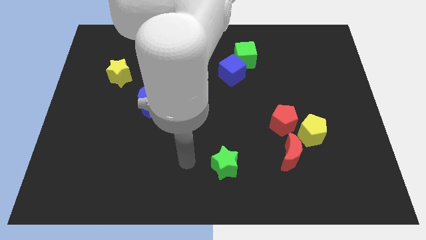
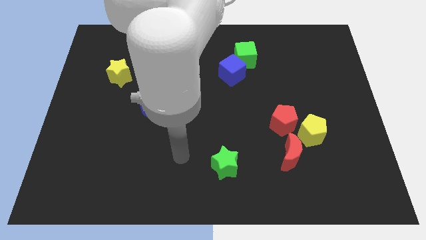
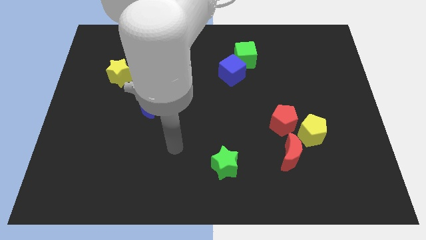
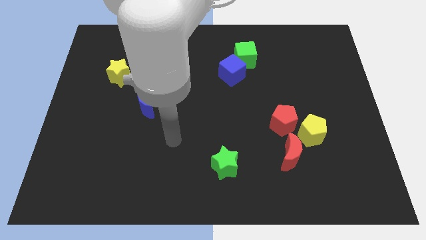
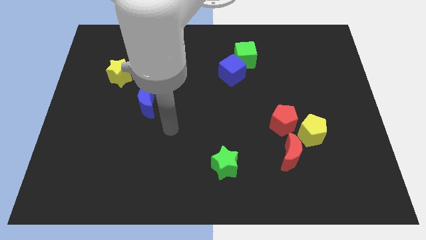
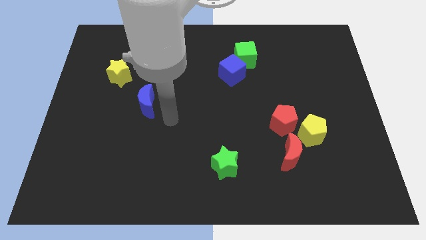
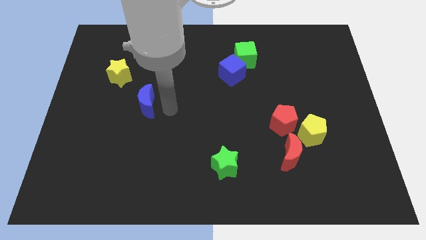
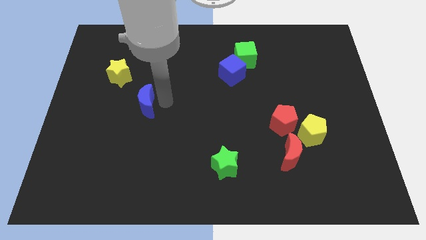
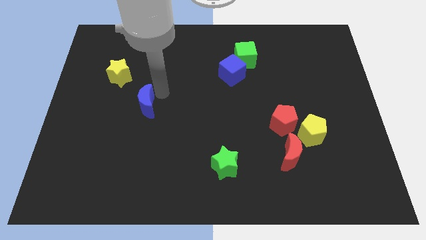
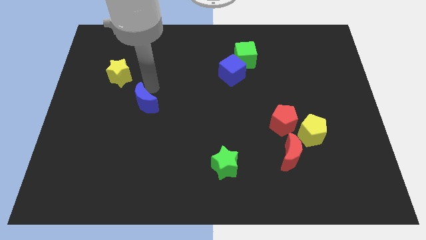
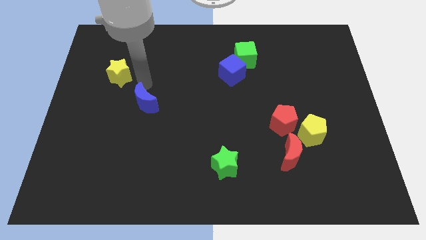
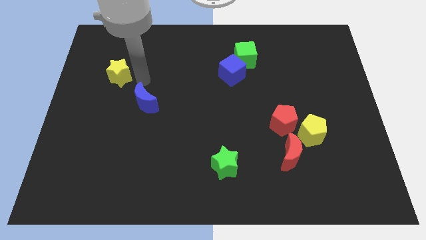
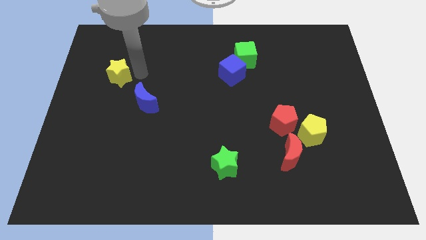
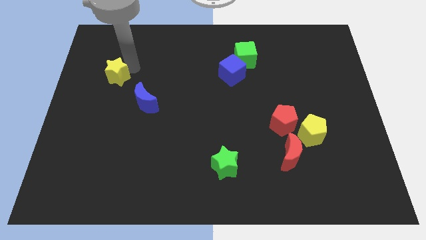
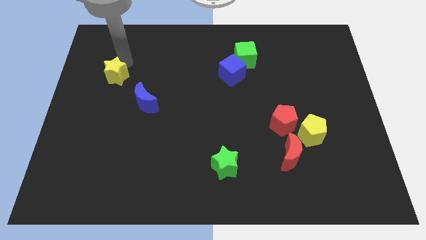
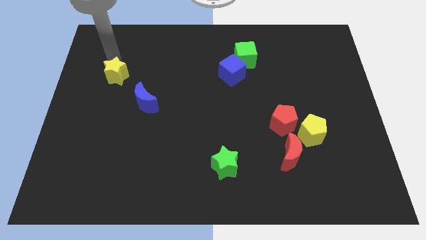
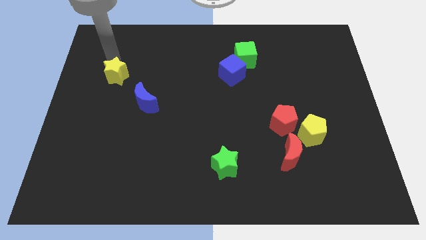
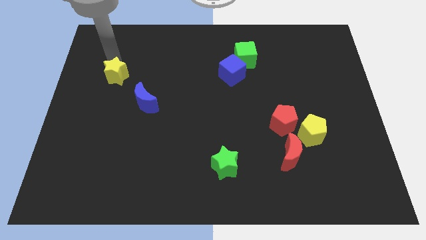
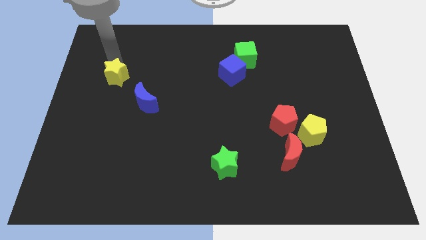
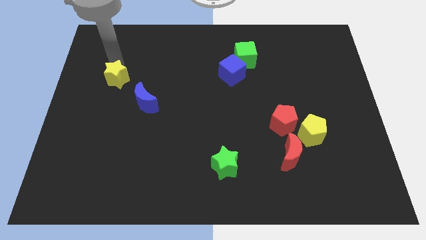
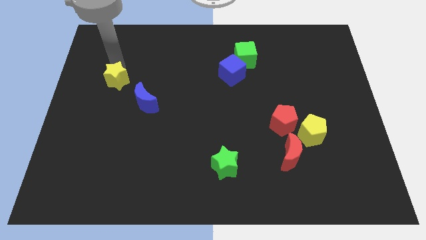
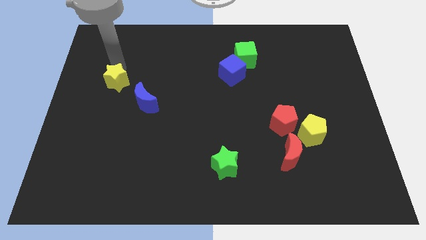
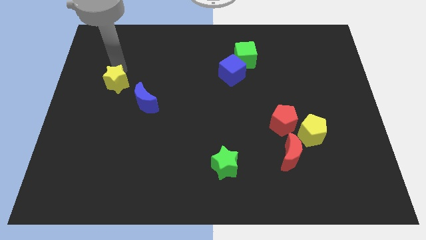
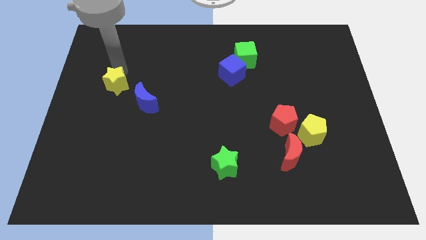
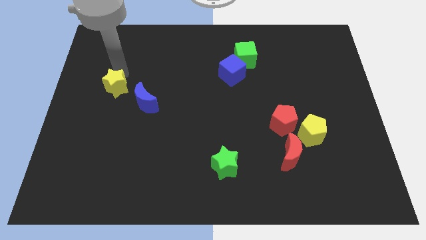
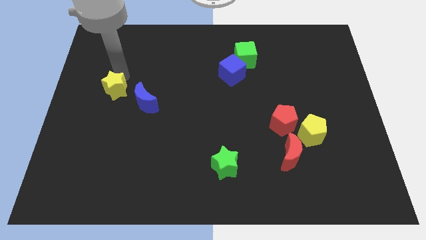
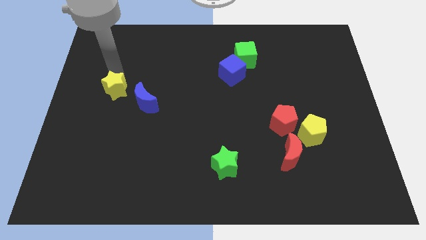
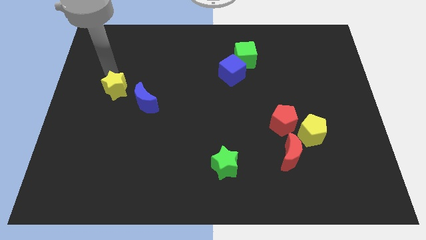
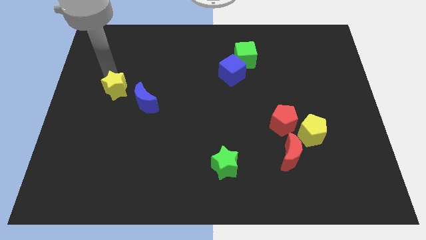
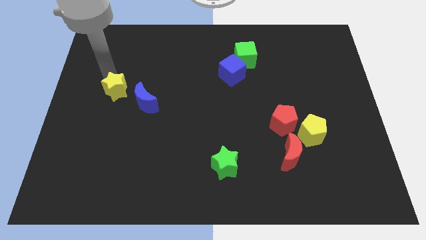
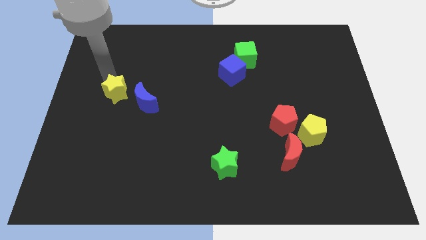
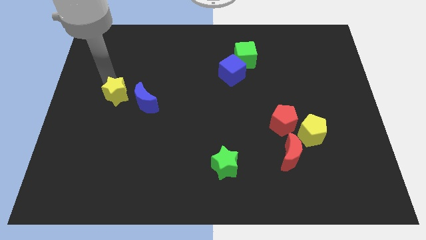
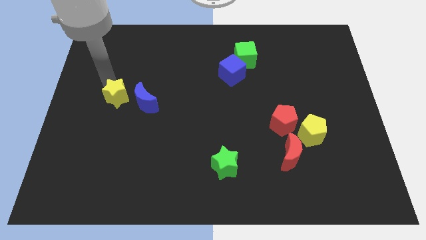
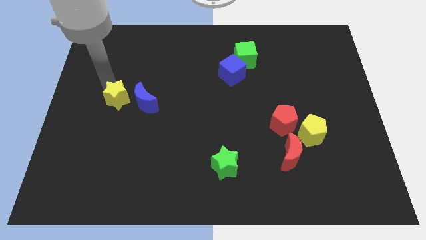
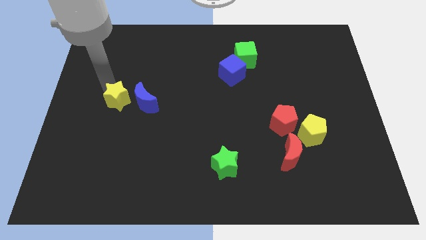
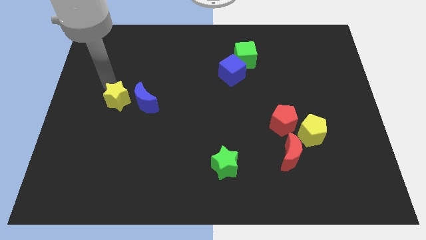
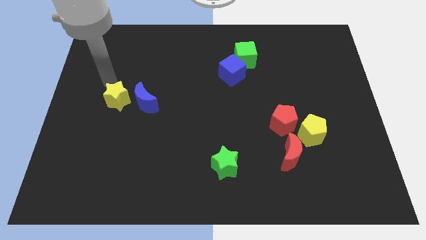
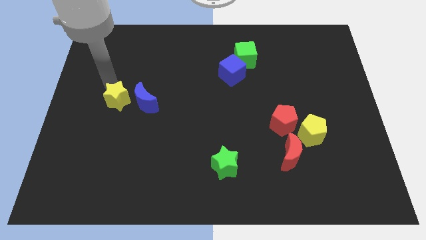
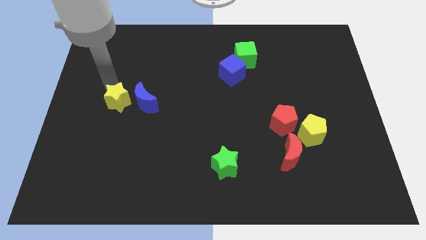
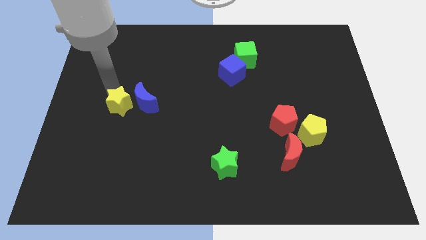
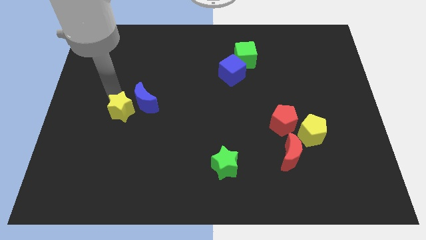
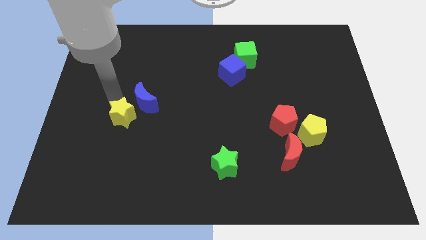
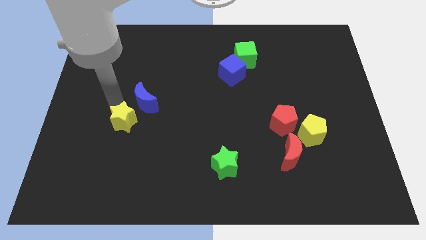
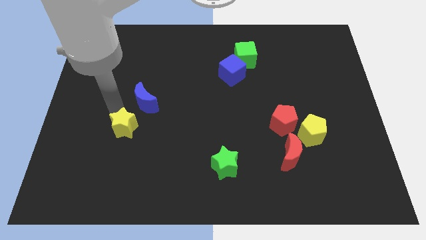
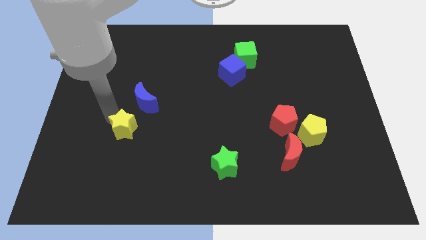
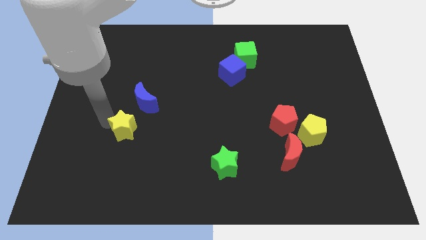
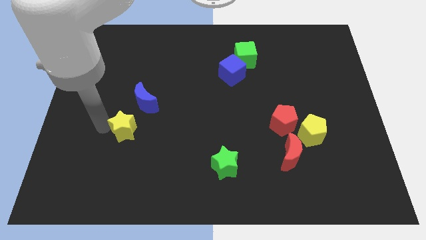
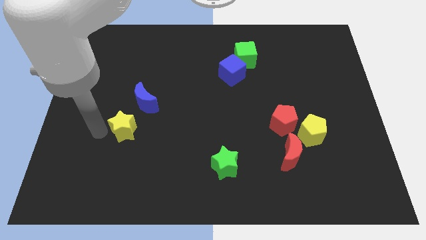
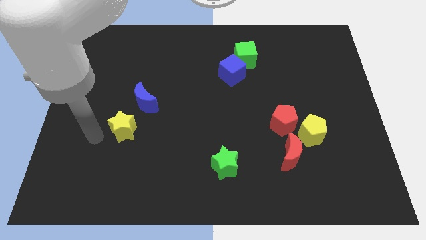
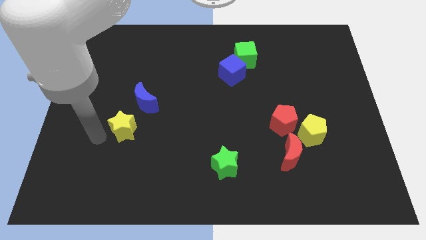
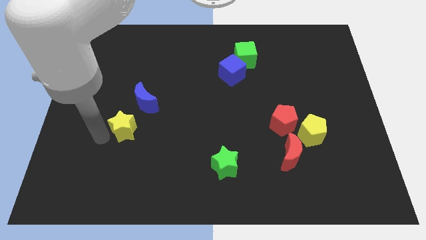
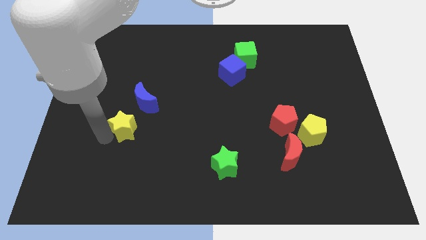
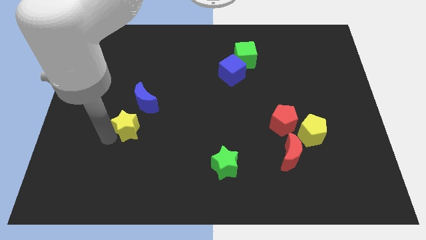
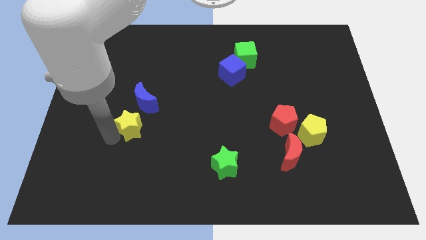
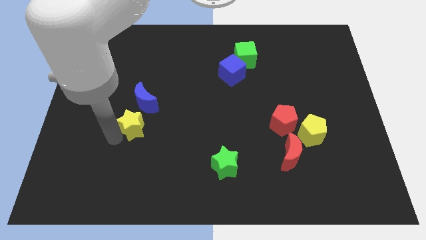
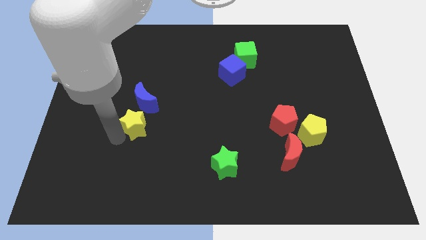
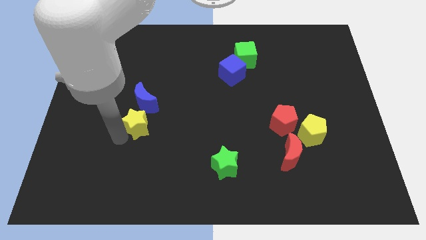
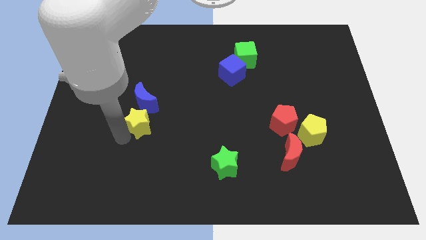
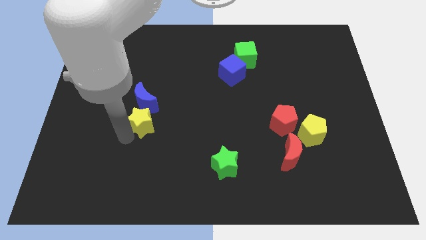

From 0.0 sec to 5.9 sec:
move the yellow star to the bottom right side of the blue moon

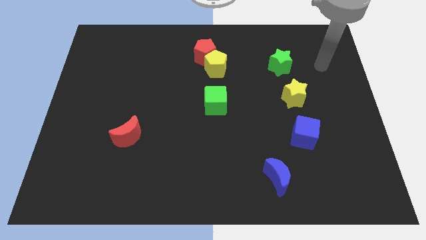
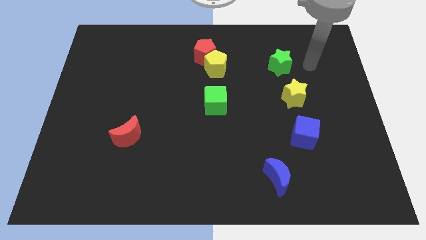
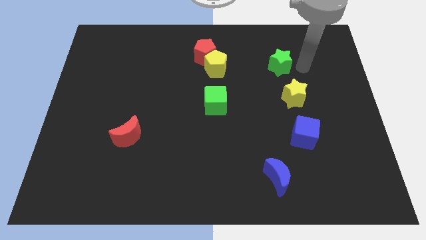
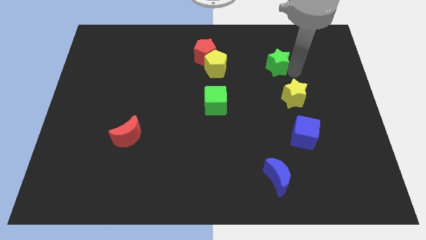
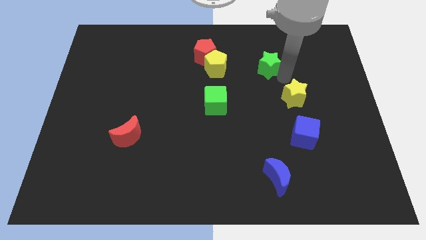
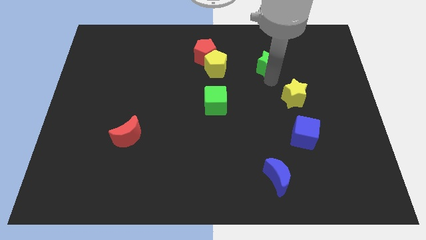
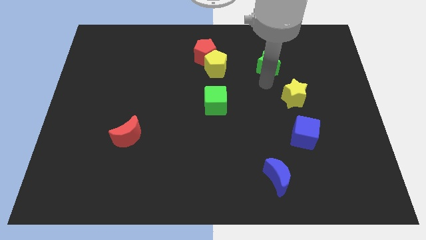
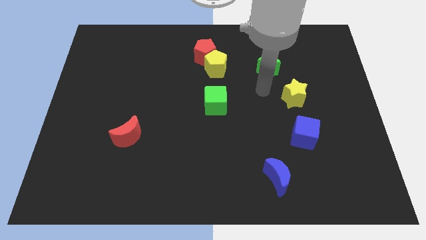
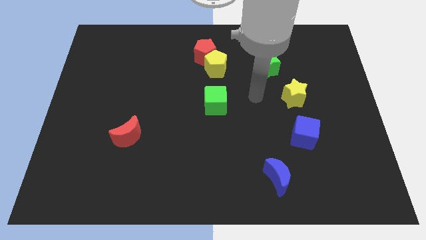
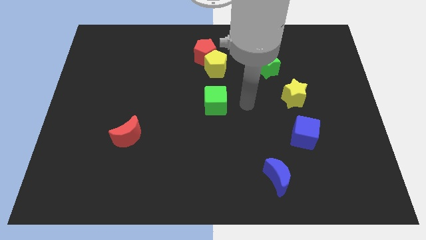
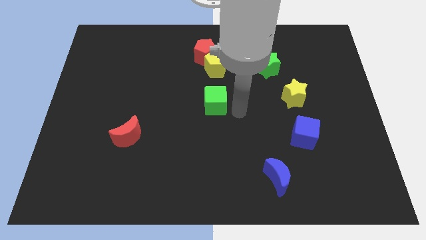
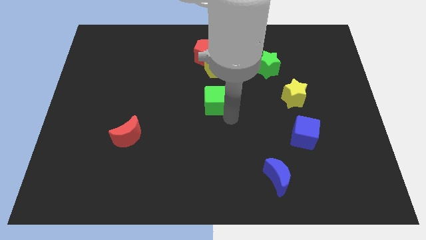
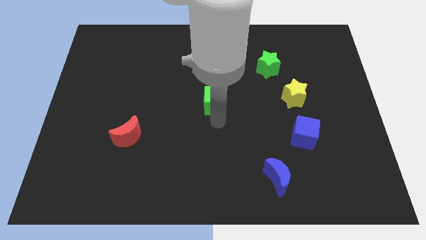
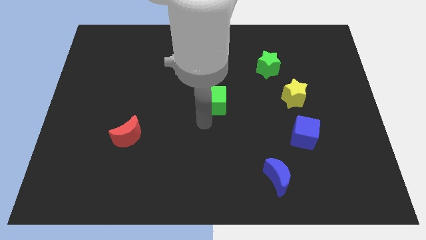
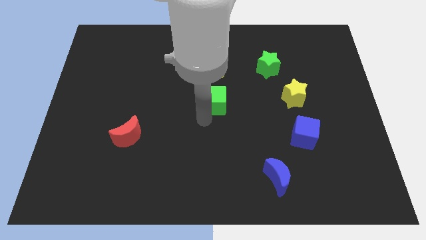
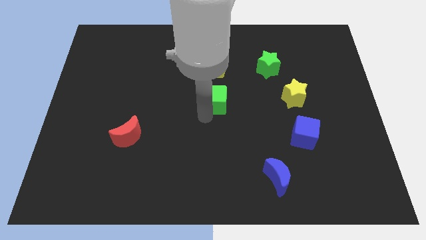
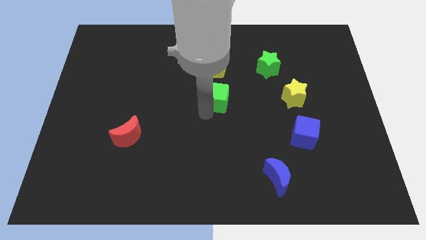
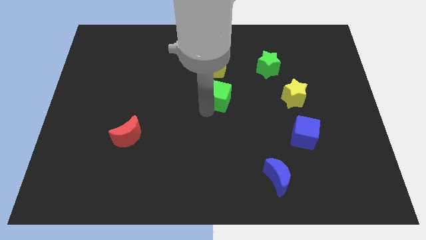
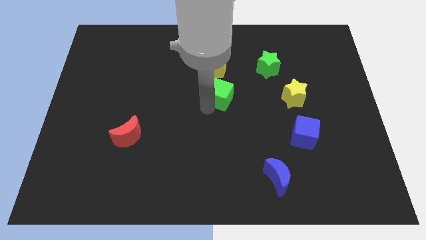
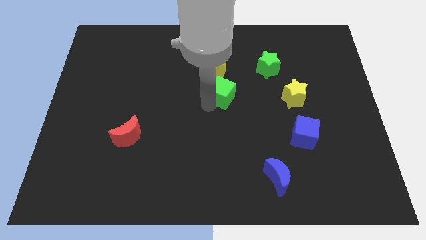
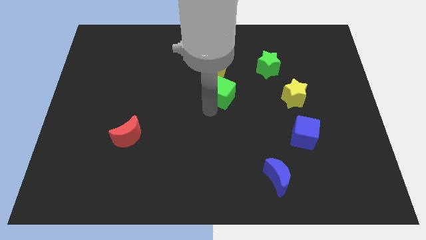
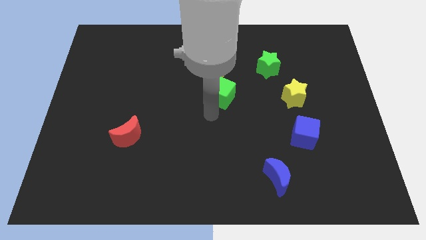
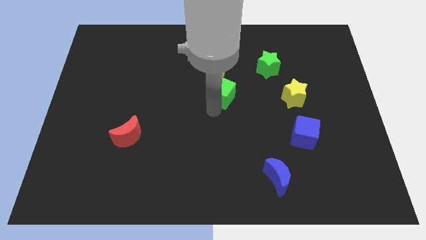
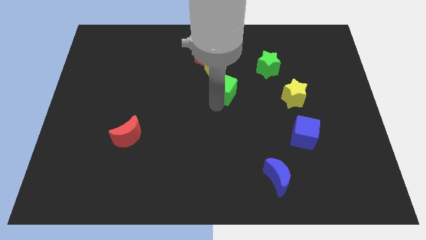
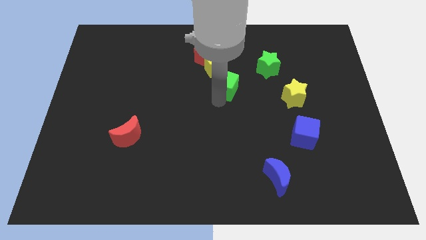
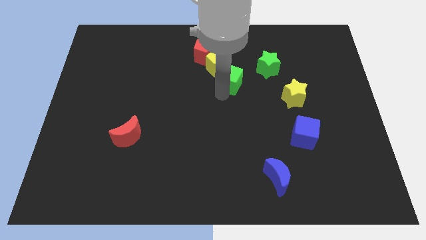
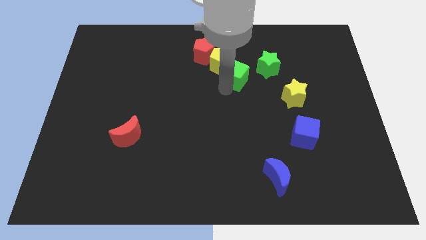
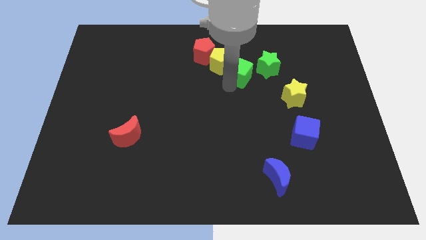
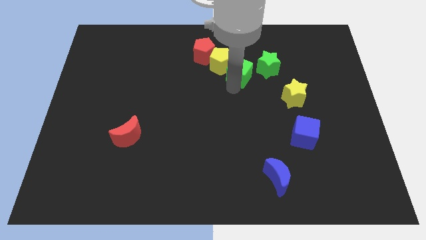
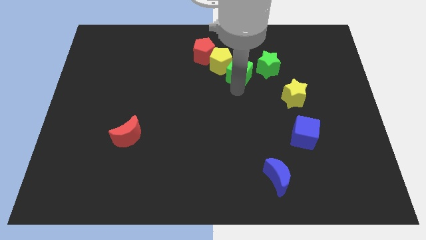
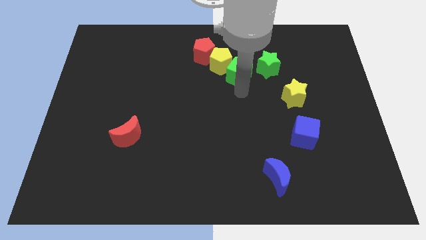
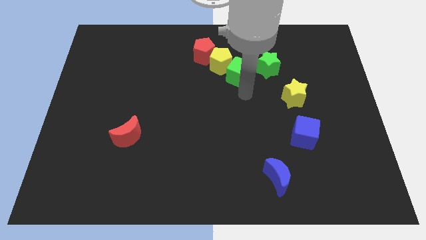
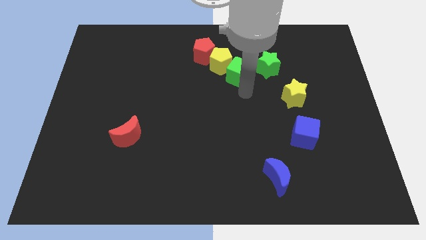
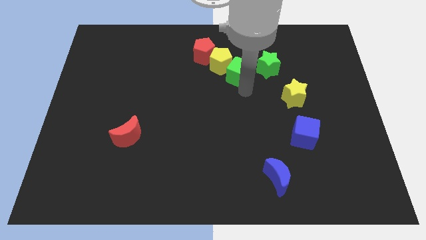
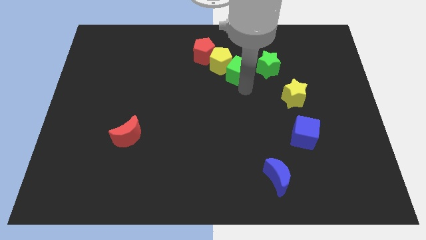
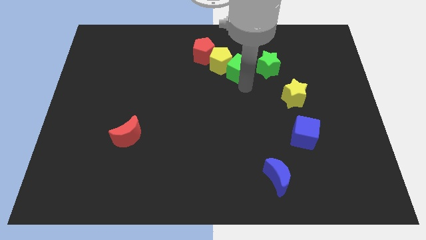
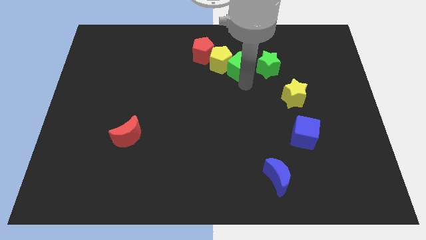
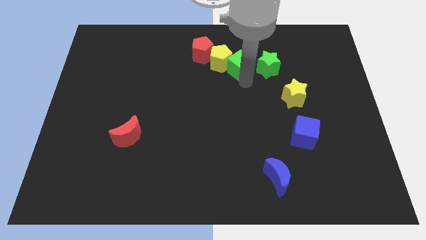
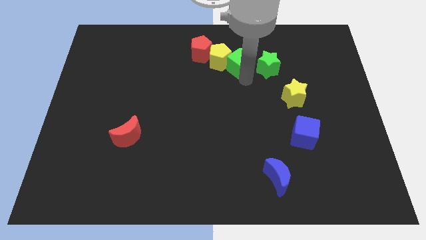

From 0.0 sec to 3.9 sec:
move the green cube right of the red pentagon
